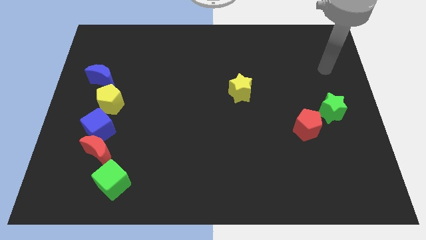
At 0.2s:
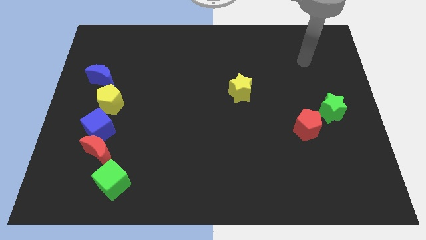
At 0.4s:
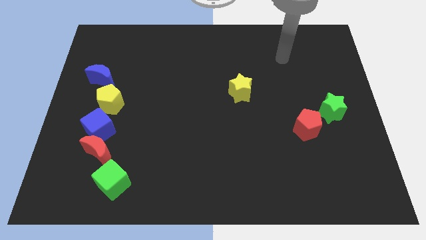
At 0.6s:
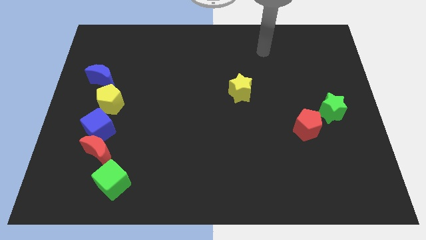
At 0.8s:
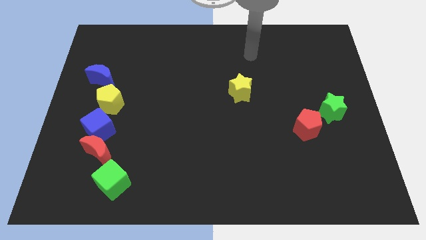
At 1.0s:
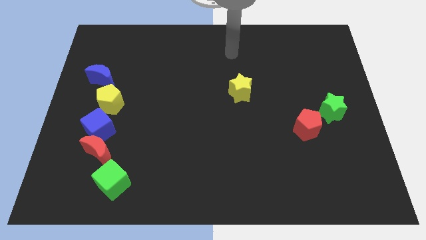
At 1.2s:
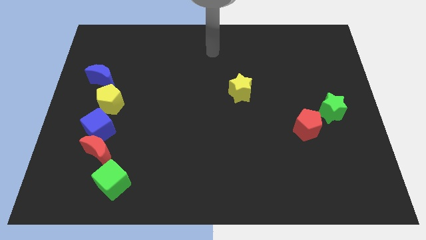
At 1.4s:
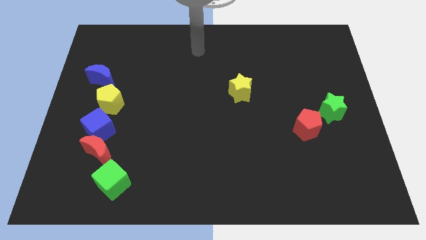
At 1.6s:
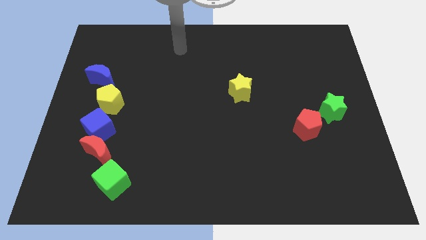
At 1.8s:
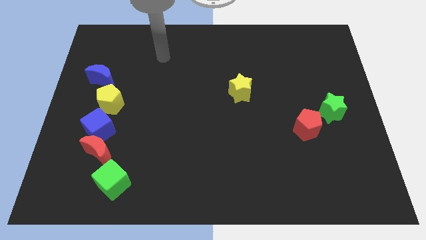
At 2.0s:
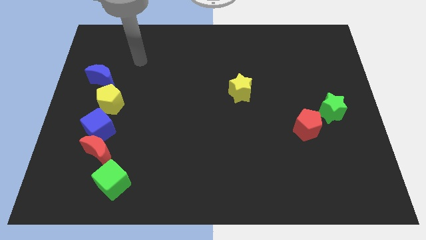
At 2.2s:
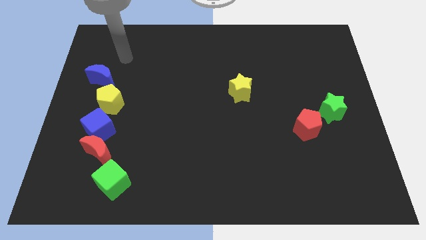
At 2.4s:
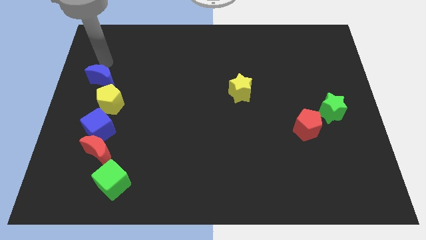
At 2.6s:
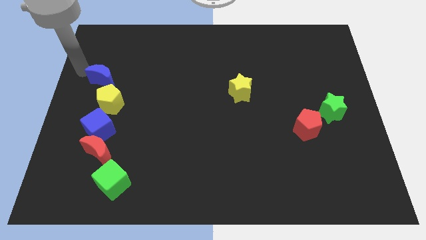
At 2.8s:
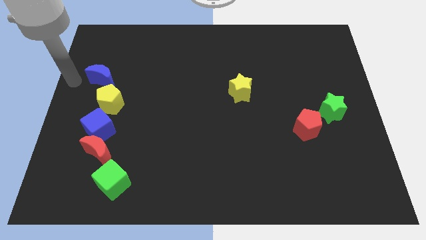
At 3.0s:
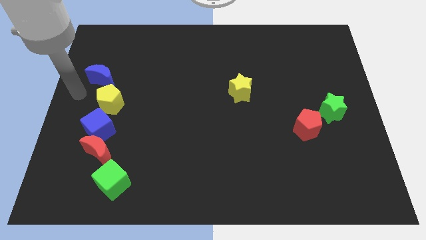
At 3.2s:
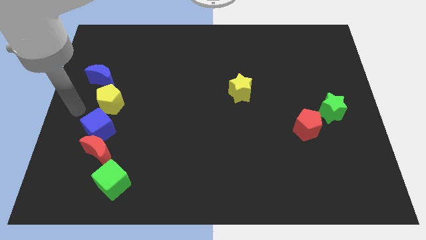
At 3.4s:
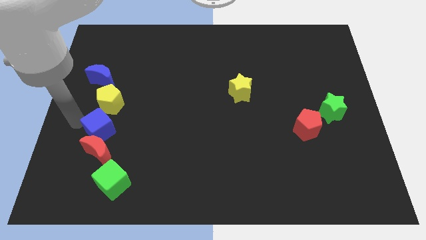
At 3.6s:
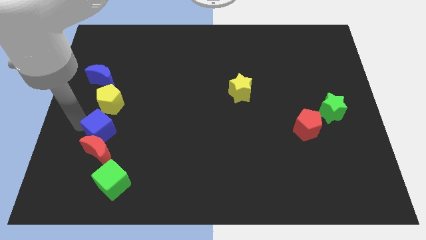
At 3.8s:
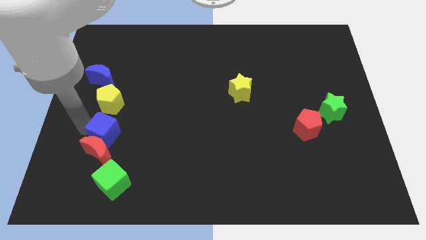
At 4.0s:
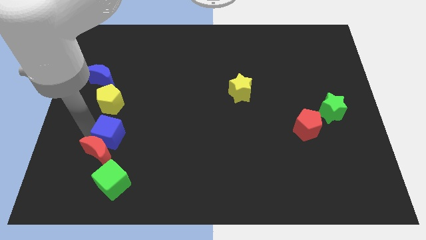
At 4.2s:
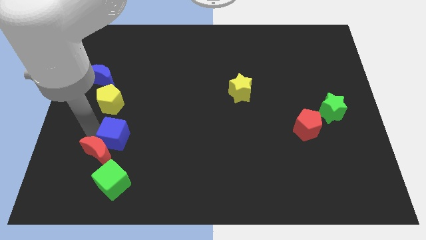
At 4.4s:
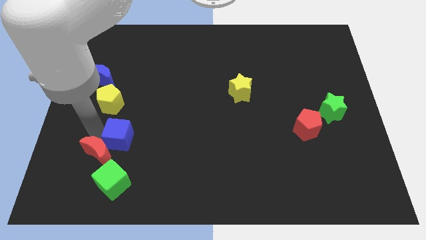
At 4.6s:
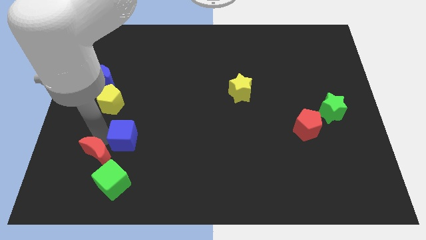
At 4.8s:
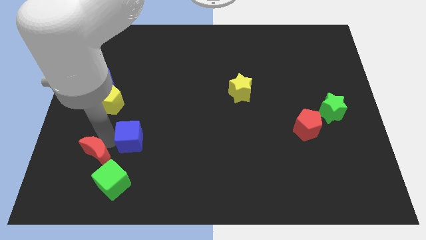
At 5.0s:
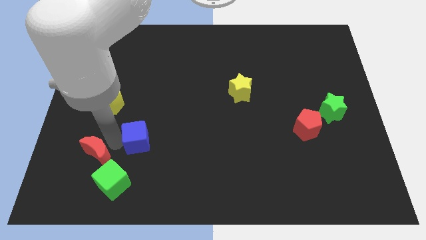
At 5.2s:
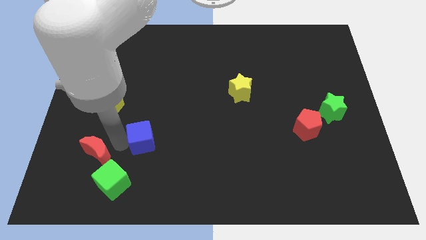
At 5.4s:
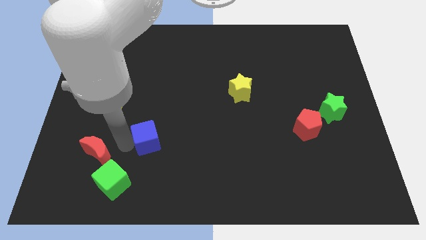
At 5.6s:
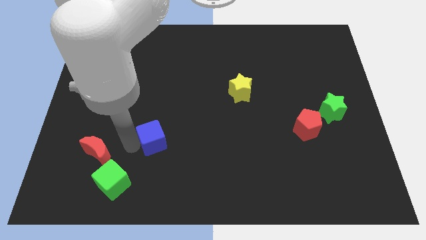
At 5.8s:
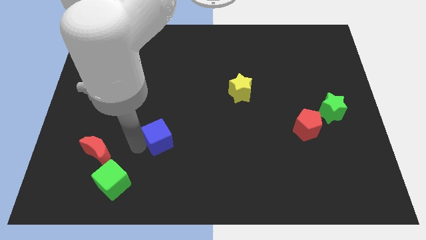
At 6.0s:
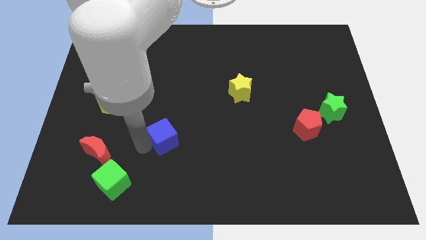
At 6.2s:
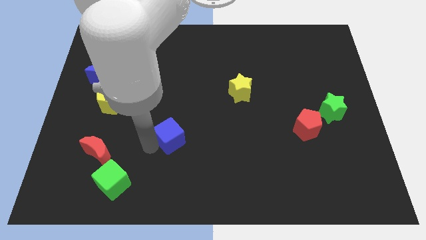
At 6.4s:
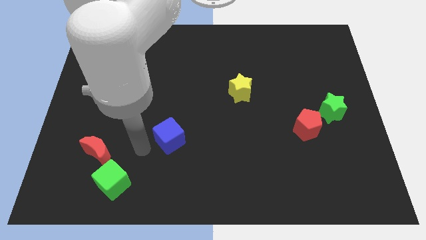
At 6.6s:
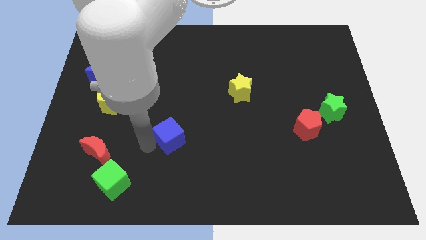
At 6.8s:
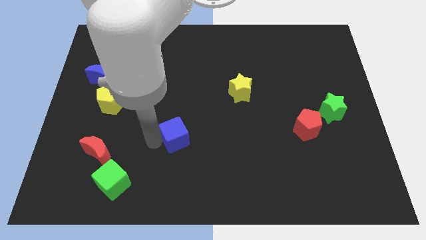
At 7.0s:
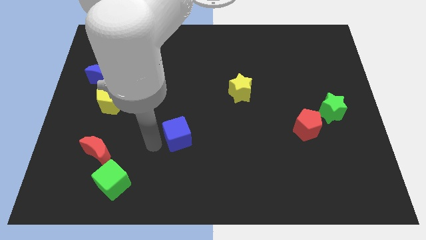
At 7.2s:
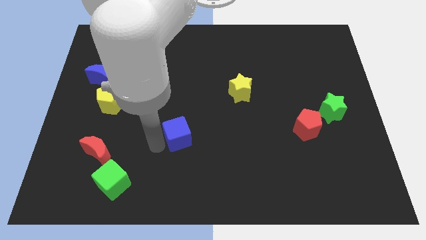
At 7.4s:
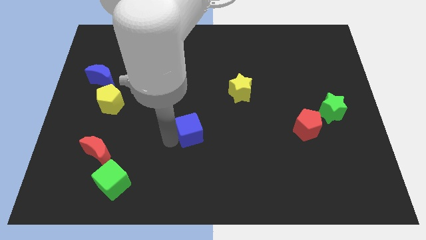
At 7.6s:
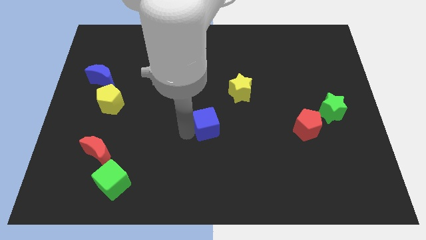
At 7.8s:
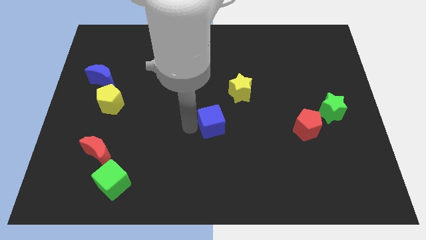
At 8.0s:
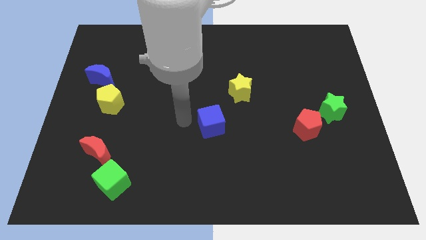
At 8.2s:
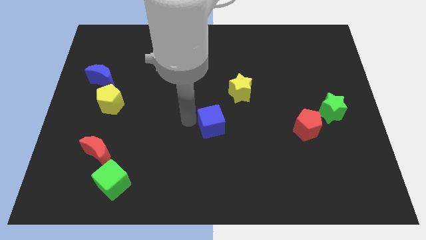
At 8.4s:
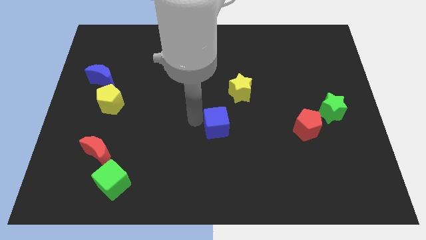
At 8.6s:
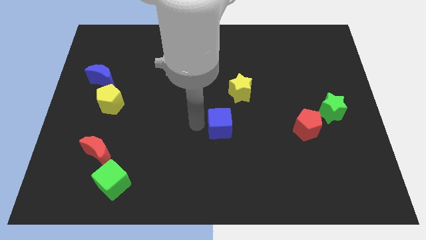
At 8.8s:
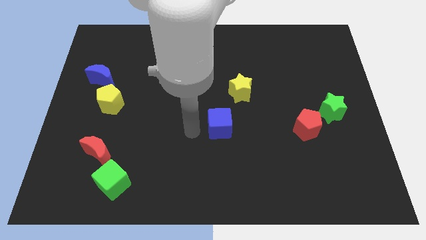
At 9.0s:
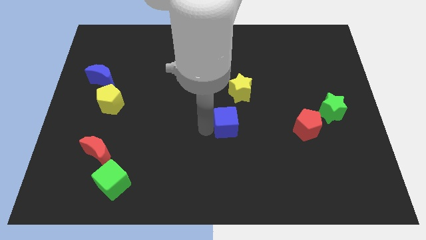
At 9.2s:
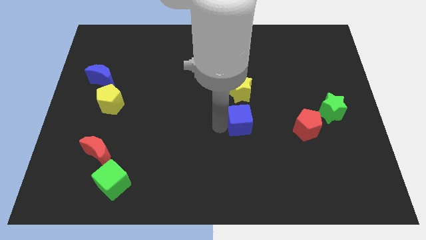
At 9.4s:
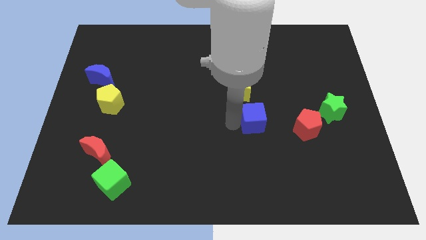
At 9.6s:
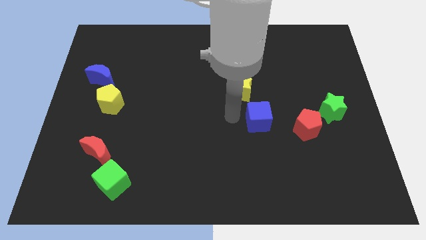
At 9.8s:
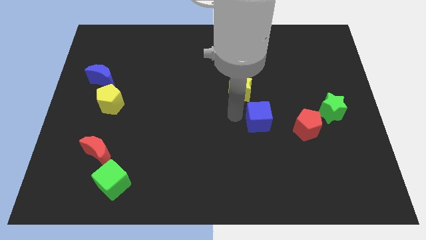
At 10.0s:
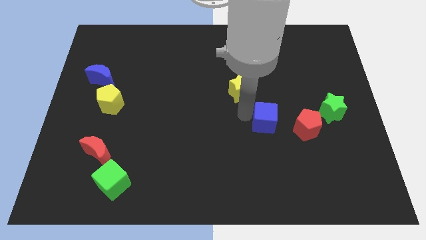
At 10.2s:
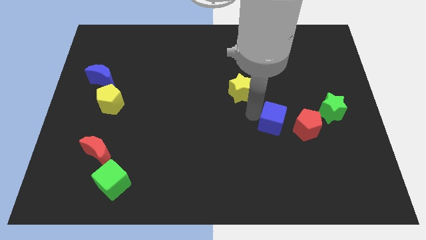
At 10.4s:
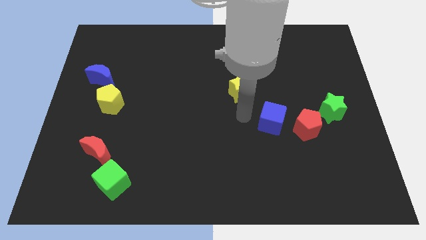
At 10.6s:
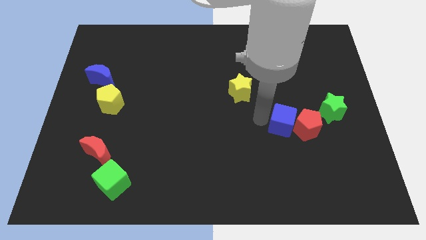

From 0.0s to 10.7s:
move the blue cube towards the red pentagon

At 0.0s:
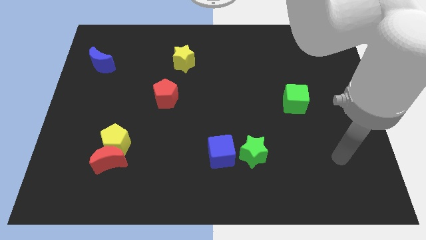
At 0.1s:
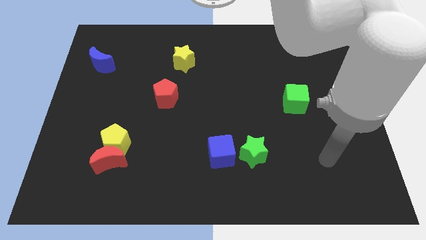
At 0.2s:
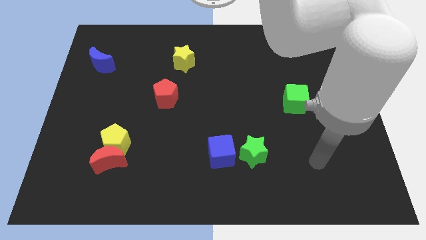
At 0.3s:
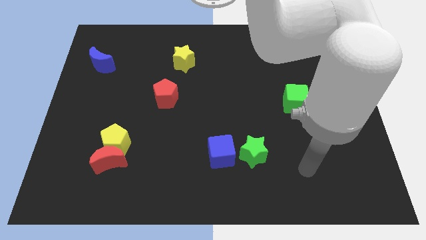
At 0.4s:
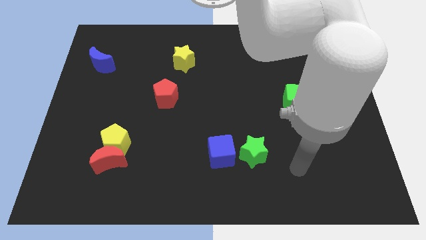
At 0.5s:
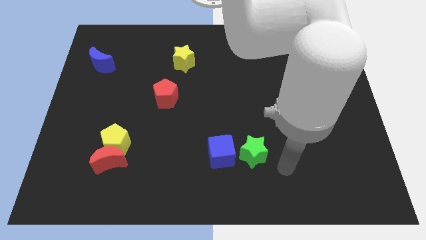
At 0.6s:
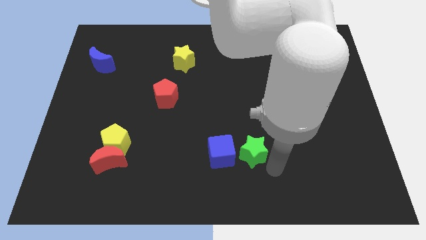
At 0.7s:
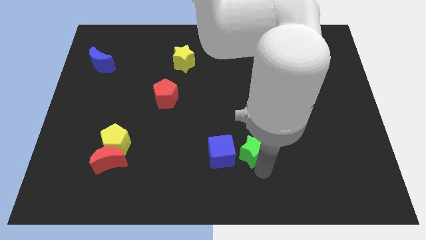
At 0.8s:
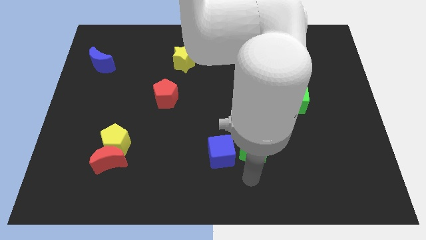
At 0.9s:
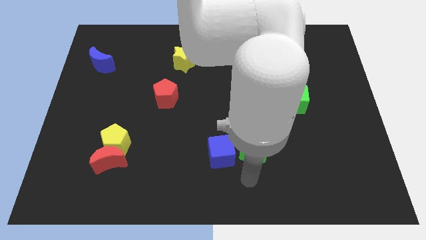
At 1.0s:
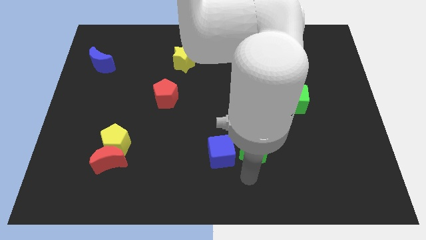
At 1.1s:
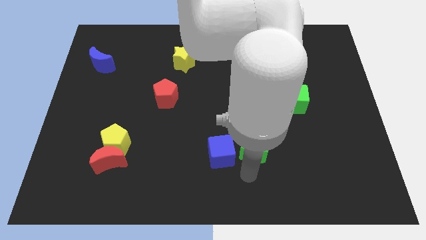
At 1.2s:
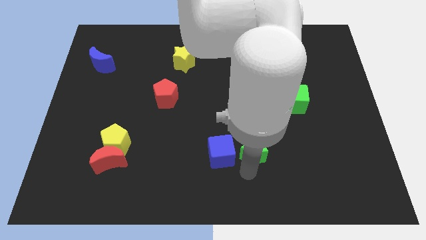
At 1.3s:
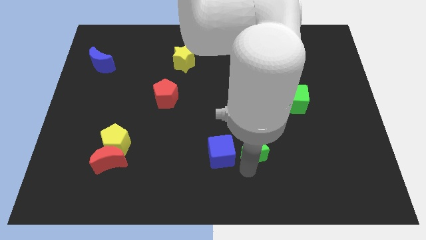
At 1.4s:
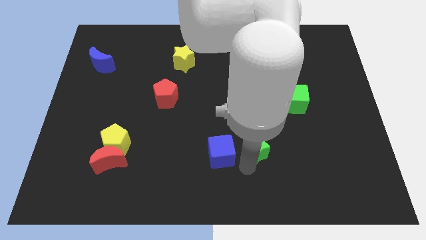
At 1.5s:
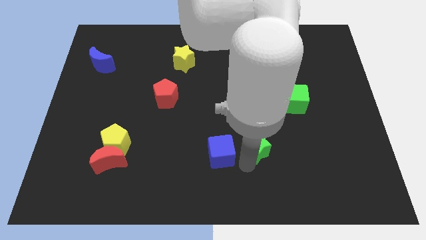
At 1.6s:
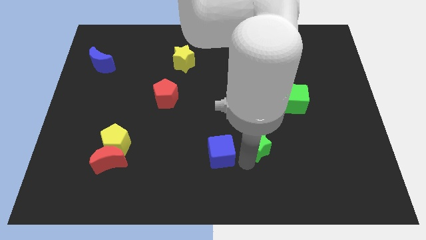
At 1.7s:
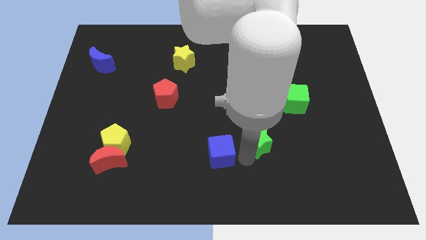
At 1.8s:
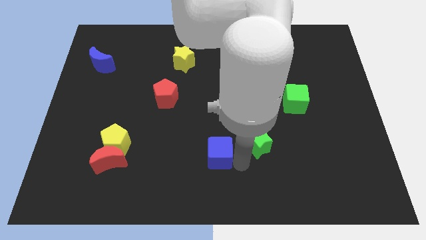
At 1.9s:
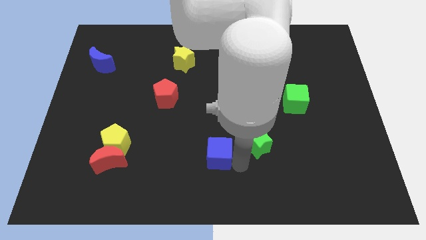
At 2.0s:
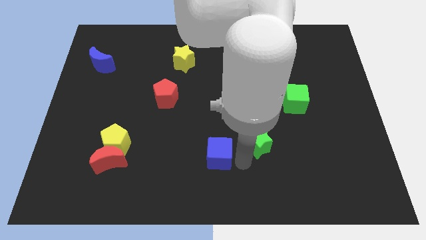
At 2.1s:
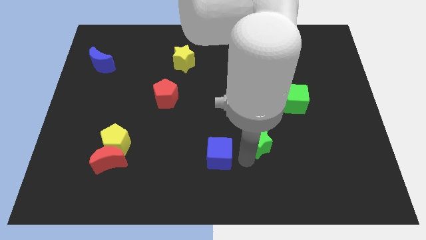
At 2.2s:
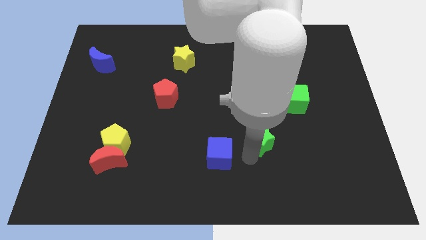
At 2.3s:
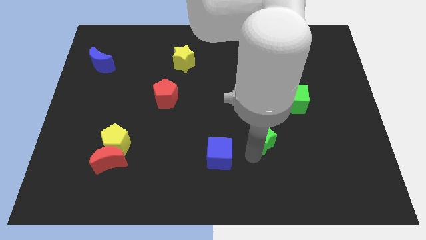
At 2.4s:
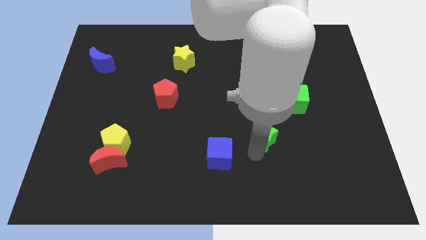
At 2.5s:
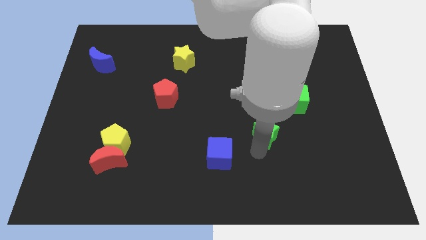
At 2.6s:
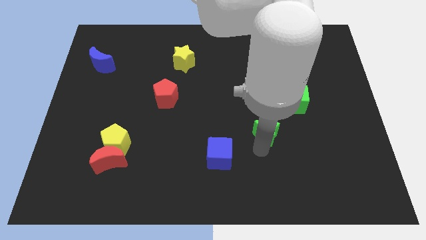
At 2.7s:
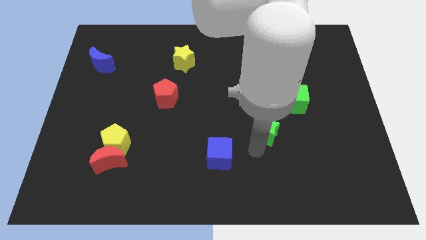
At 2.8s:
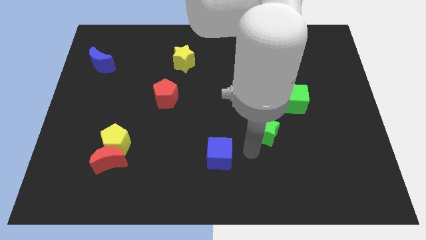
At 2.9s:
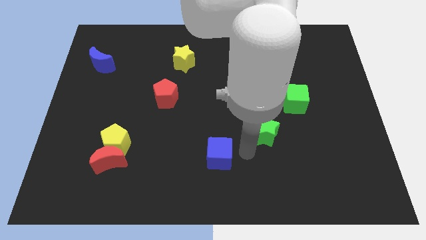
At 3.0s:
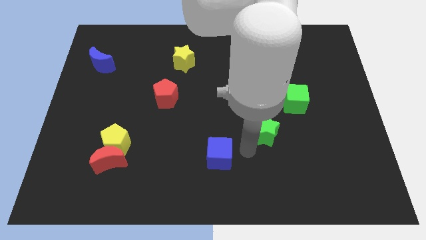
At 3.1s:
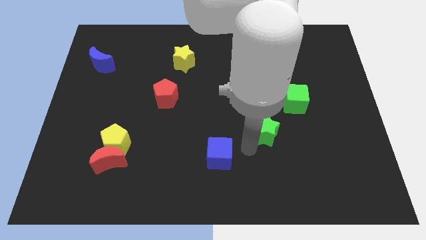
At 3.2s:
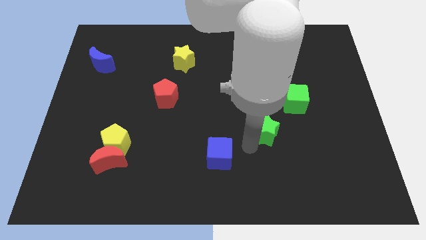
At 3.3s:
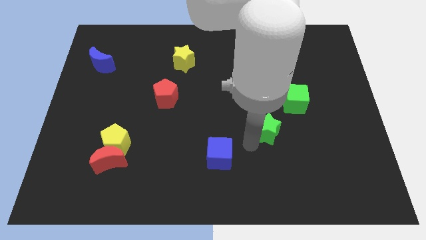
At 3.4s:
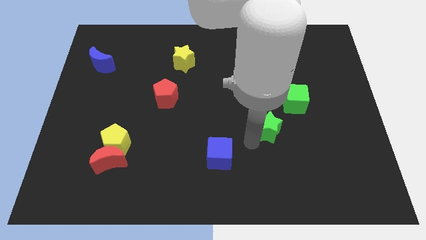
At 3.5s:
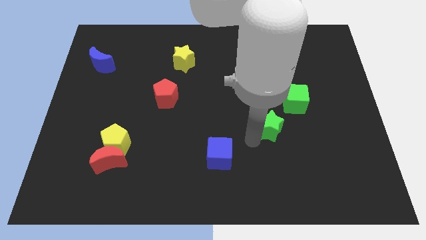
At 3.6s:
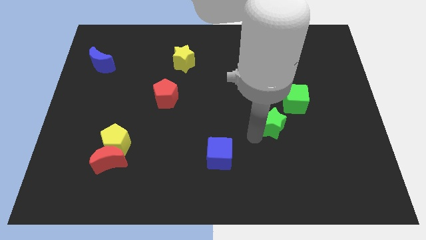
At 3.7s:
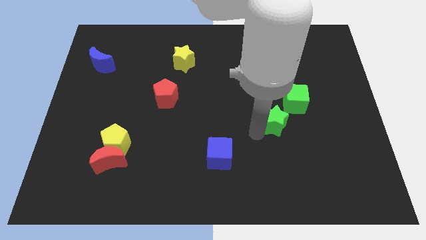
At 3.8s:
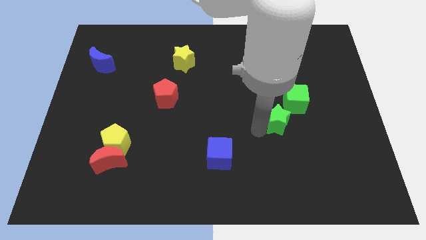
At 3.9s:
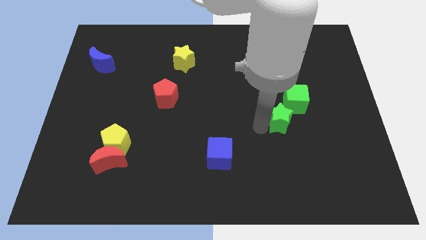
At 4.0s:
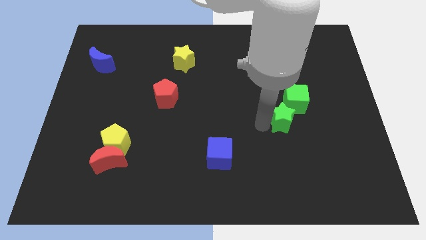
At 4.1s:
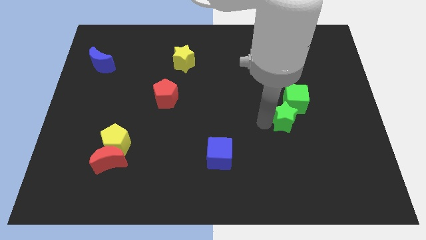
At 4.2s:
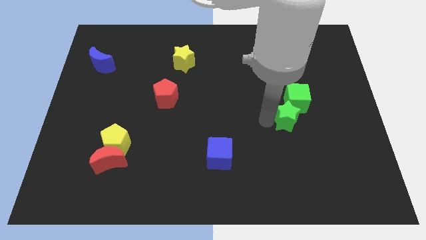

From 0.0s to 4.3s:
move the green star close to the green cube
